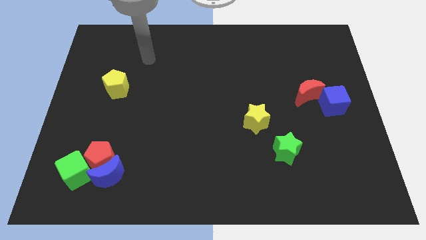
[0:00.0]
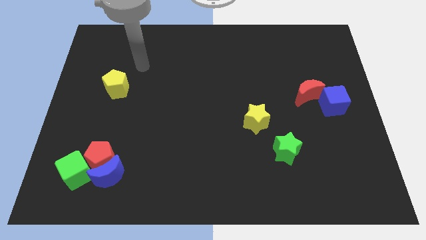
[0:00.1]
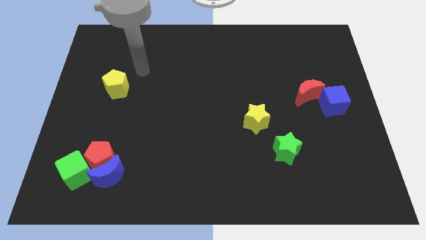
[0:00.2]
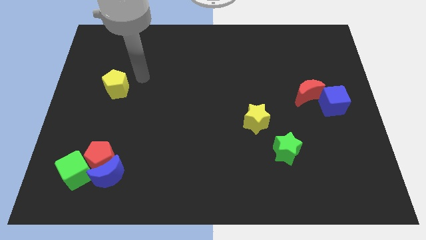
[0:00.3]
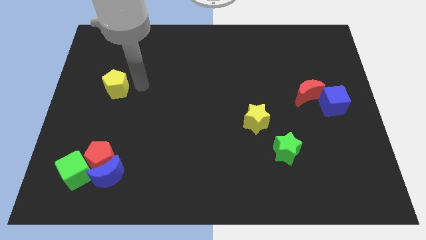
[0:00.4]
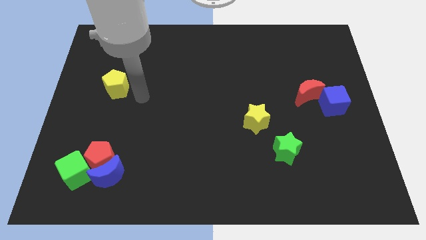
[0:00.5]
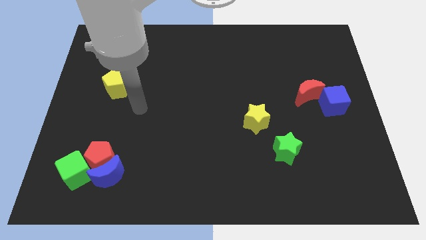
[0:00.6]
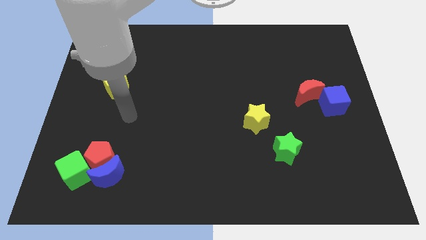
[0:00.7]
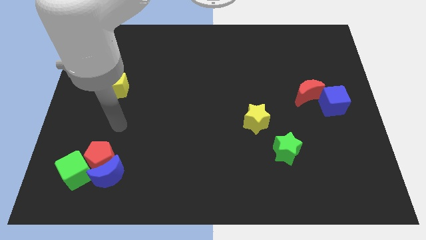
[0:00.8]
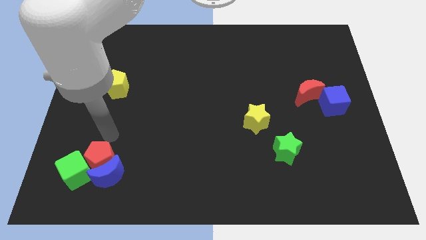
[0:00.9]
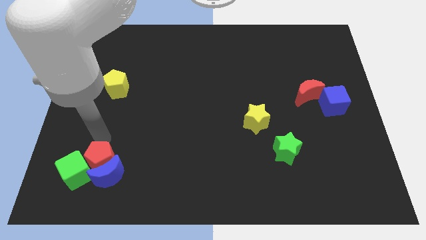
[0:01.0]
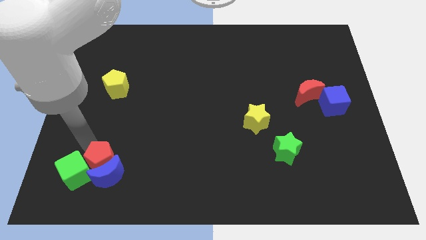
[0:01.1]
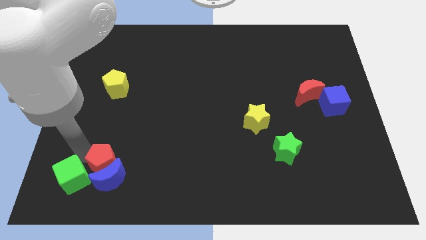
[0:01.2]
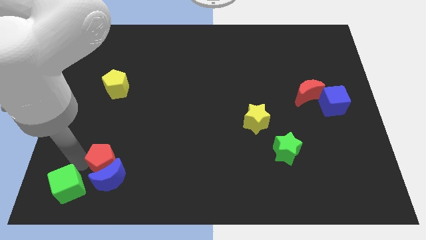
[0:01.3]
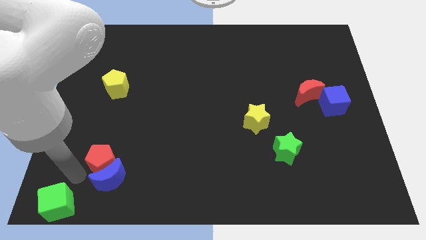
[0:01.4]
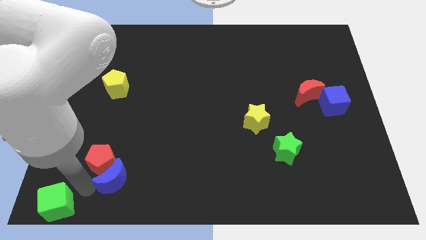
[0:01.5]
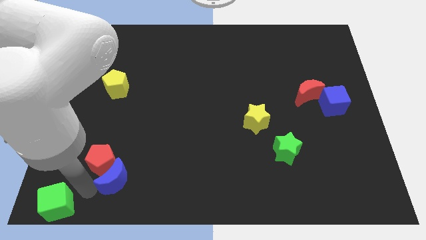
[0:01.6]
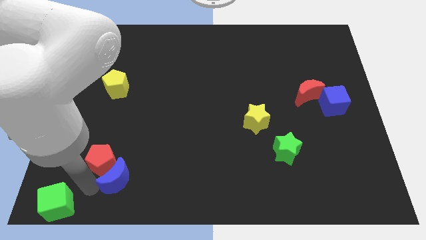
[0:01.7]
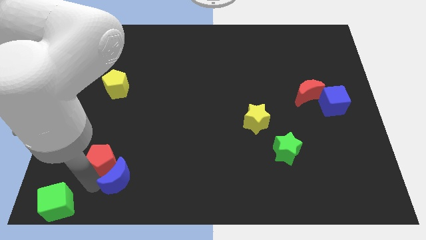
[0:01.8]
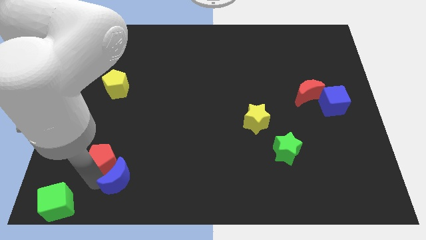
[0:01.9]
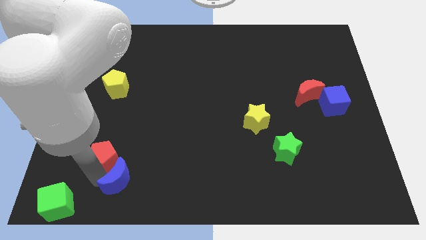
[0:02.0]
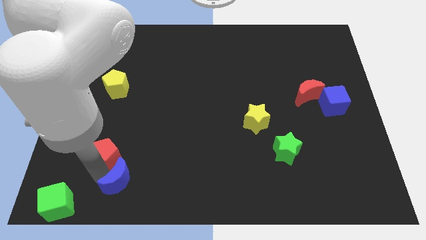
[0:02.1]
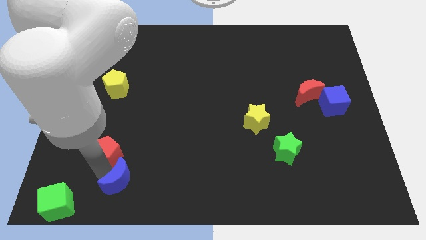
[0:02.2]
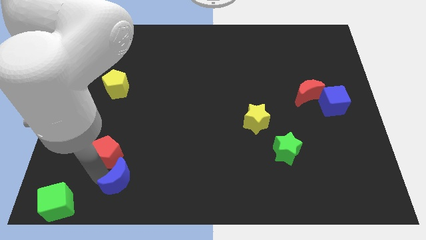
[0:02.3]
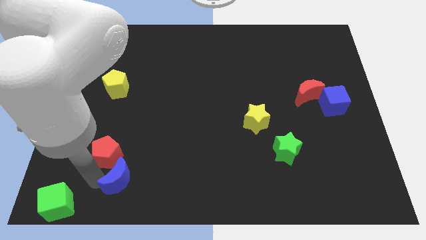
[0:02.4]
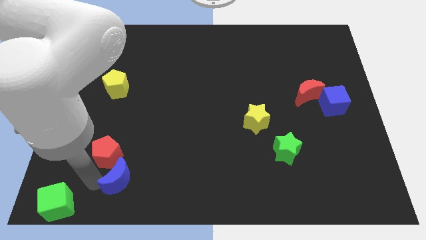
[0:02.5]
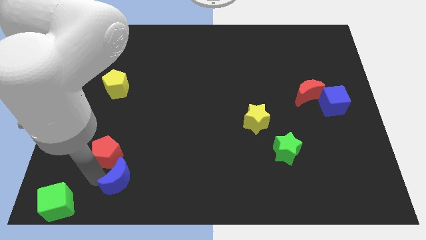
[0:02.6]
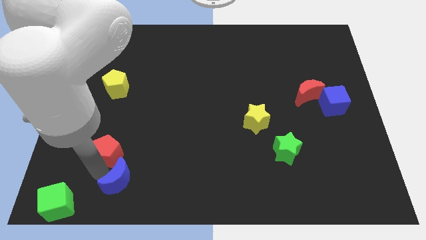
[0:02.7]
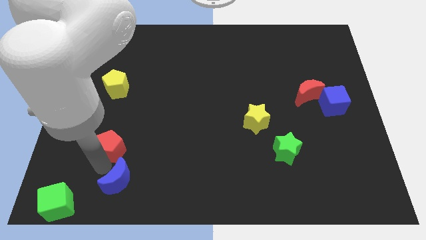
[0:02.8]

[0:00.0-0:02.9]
move the red pentagon away from the blue moon and green cube

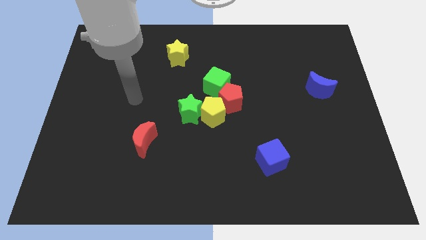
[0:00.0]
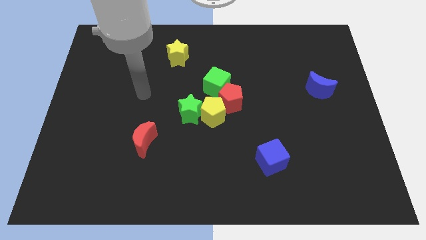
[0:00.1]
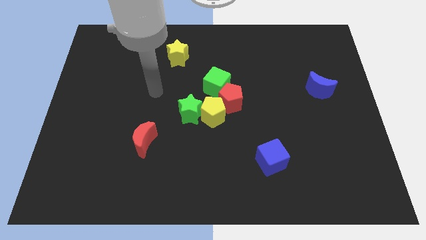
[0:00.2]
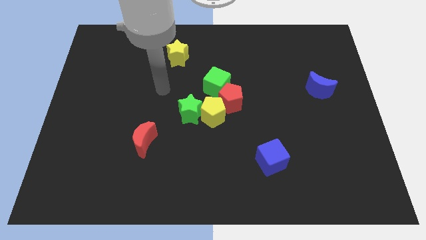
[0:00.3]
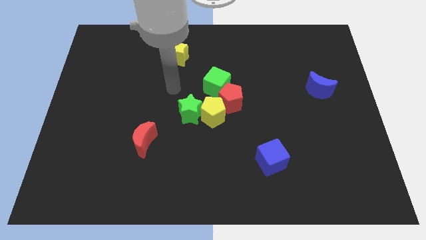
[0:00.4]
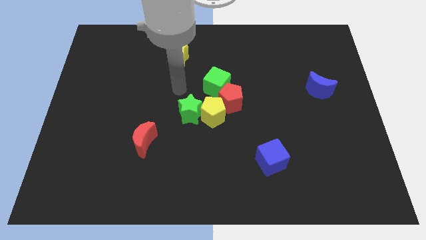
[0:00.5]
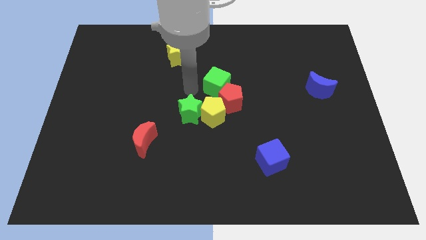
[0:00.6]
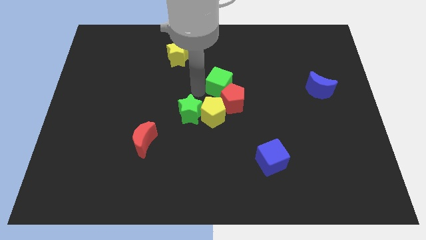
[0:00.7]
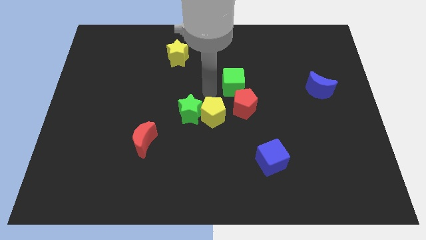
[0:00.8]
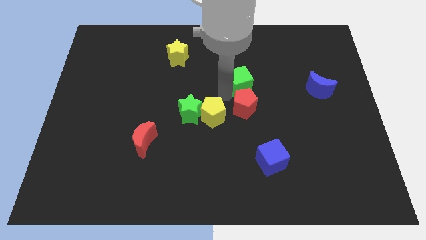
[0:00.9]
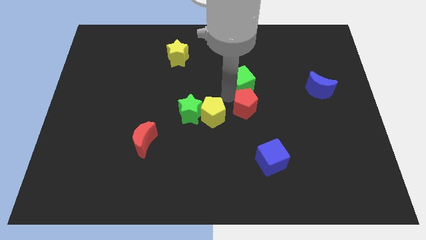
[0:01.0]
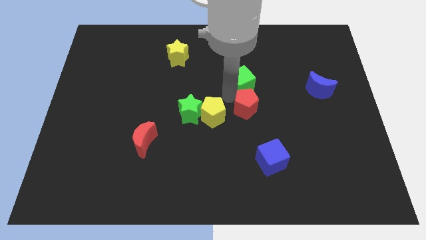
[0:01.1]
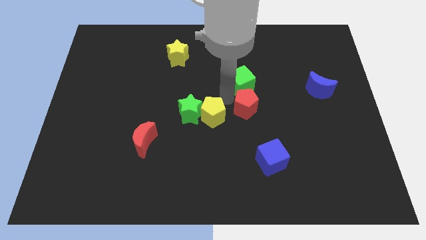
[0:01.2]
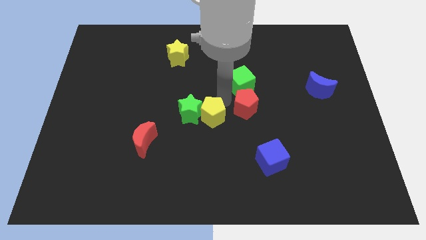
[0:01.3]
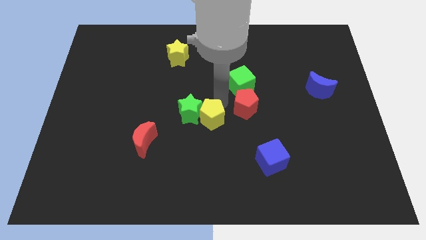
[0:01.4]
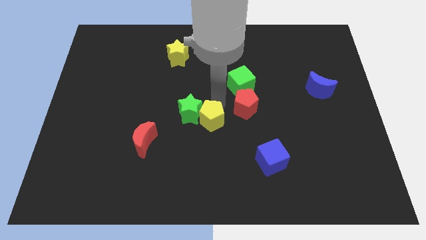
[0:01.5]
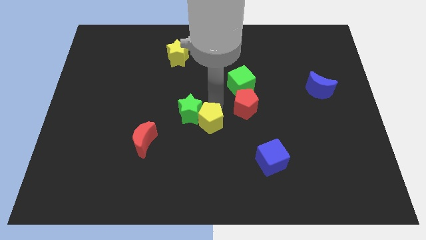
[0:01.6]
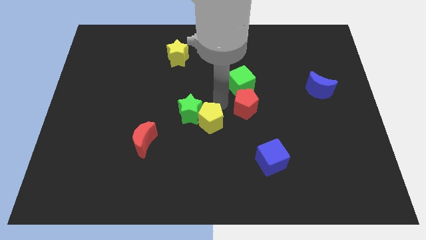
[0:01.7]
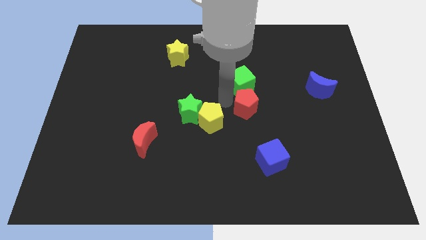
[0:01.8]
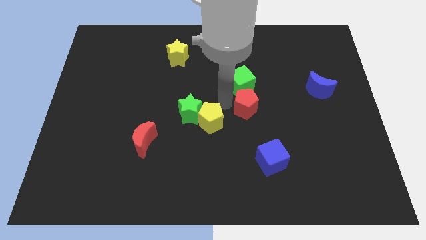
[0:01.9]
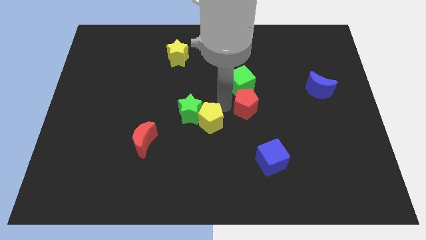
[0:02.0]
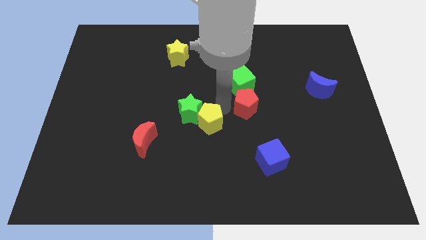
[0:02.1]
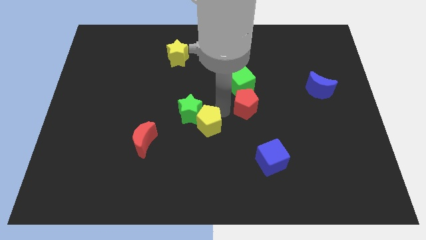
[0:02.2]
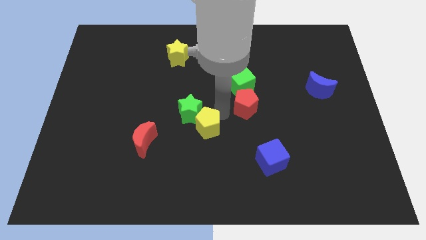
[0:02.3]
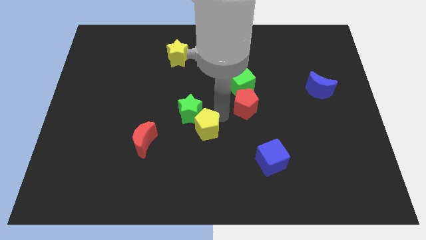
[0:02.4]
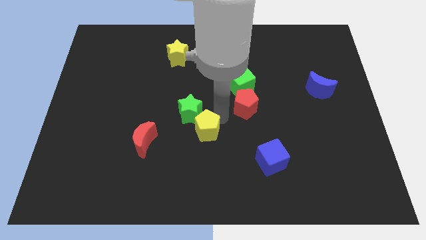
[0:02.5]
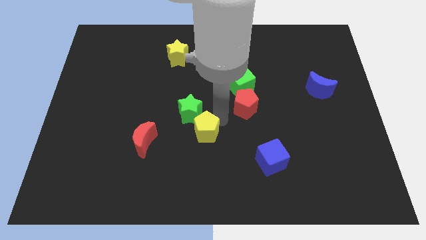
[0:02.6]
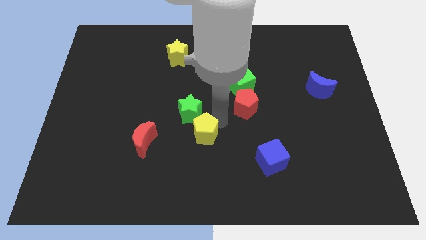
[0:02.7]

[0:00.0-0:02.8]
move the yellow pentagon away from the group

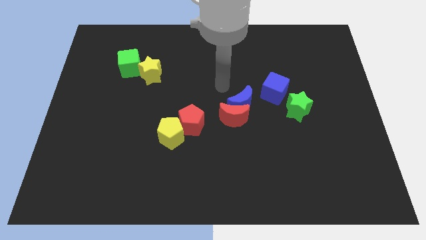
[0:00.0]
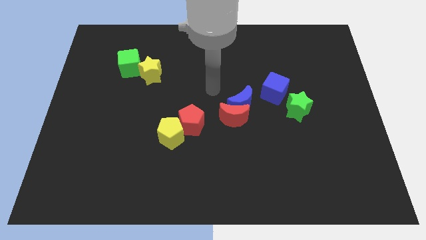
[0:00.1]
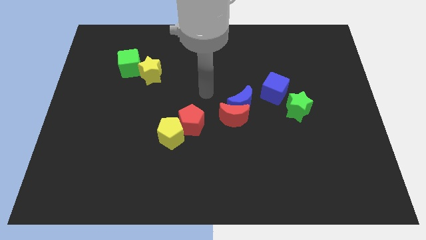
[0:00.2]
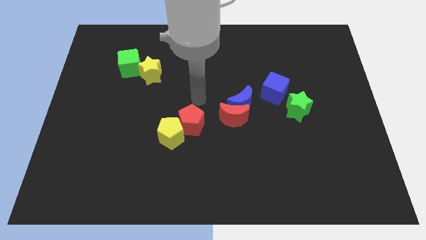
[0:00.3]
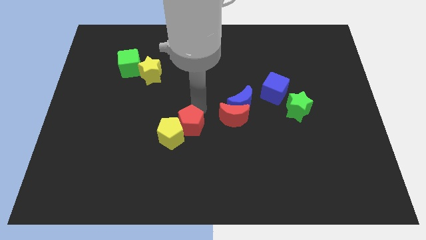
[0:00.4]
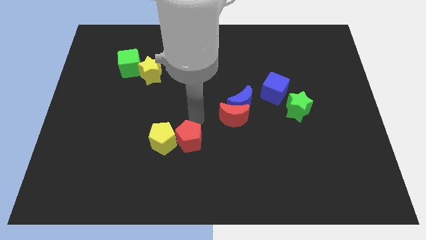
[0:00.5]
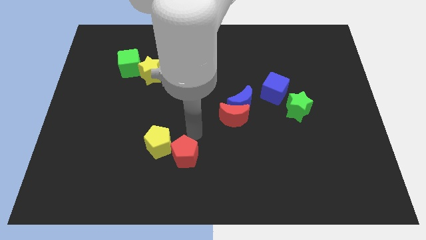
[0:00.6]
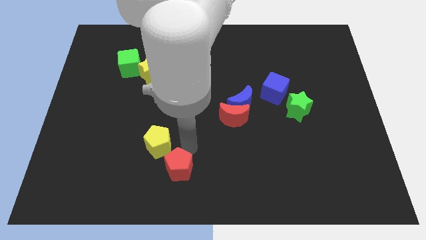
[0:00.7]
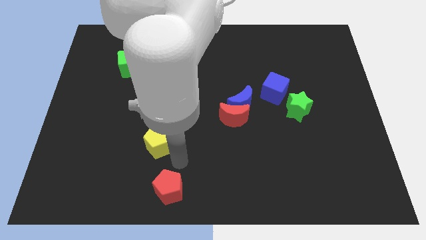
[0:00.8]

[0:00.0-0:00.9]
separate the yellow pentagon from the red pentagon

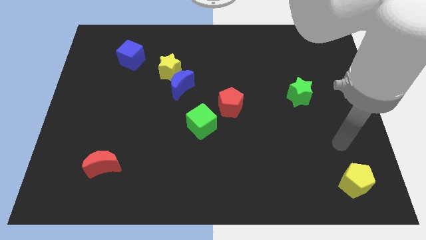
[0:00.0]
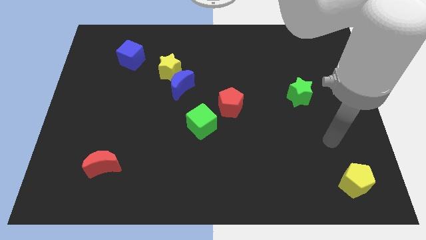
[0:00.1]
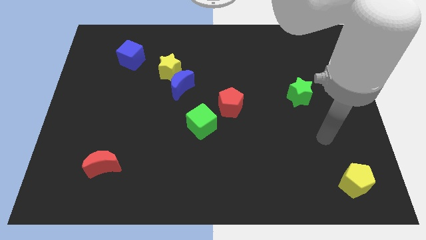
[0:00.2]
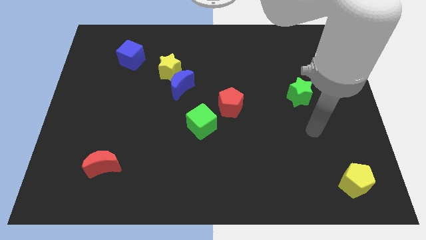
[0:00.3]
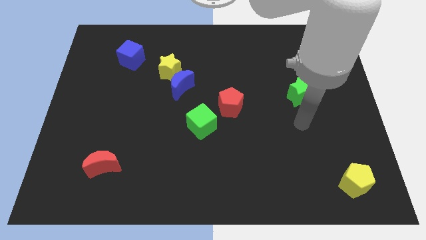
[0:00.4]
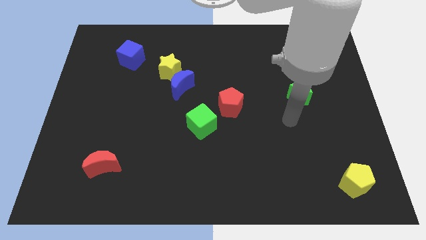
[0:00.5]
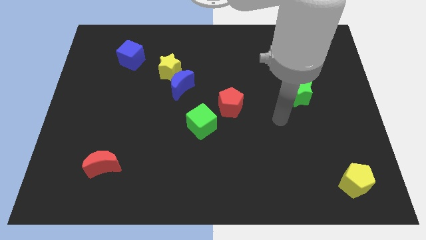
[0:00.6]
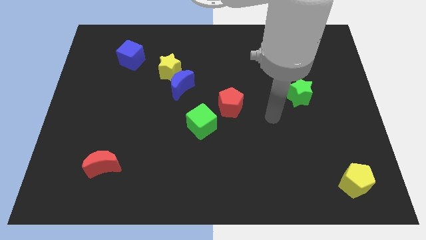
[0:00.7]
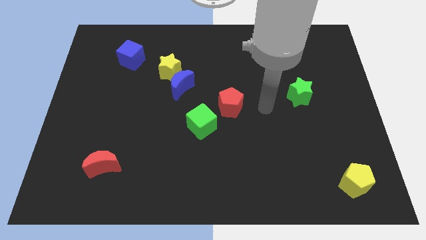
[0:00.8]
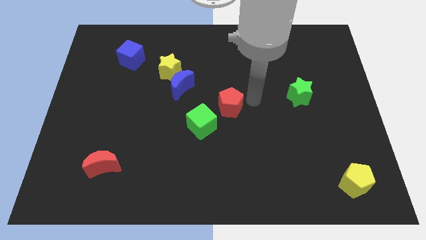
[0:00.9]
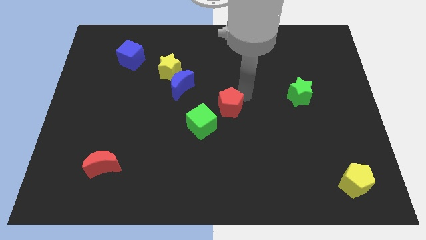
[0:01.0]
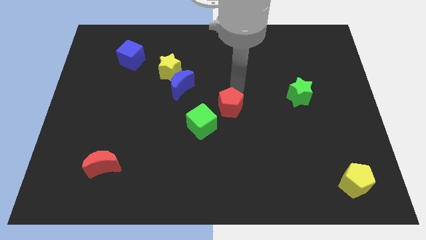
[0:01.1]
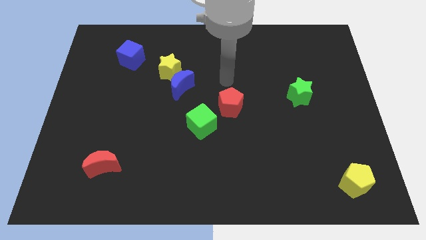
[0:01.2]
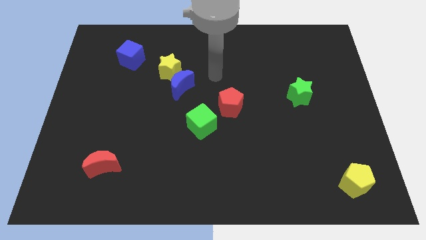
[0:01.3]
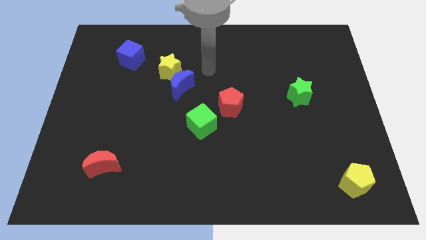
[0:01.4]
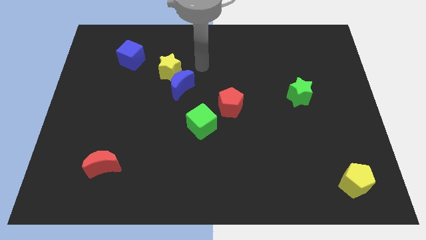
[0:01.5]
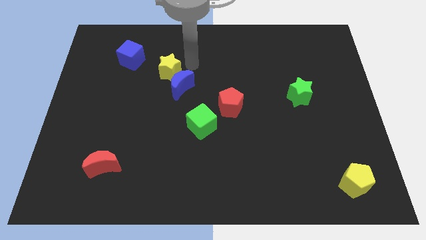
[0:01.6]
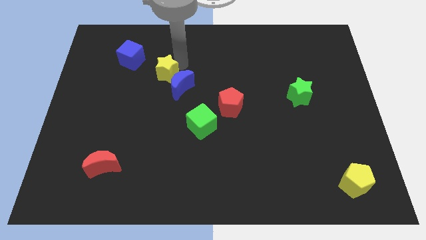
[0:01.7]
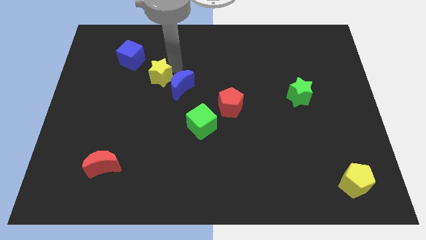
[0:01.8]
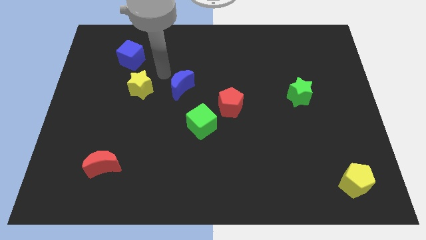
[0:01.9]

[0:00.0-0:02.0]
move the blue moon away from the yellow star

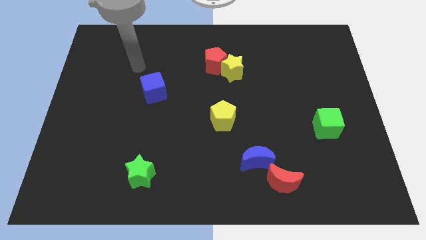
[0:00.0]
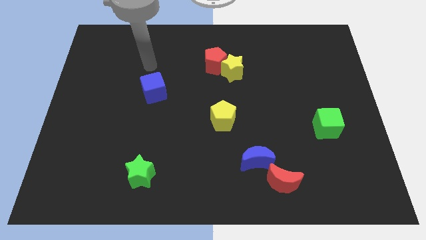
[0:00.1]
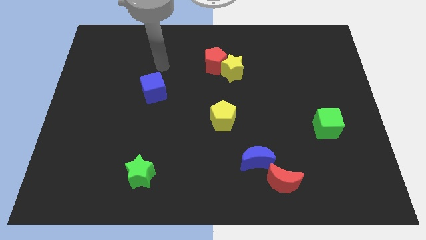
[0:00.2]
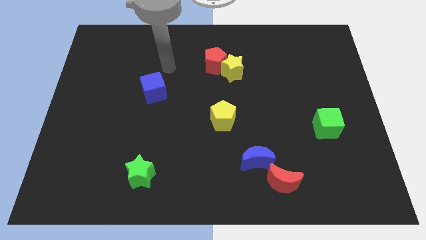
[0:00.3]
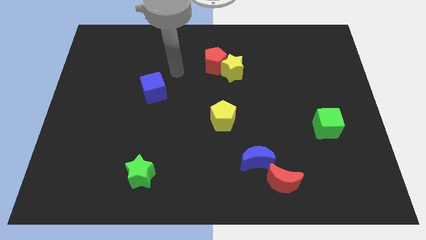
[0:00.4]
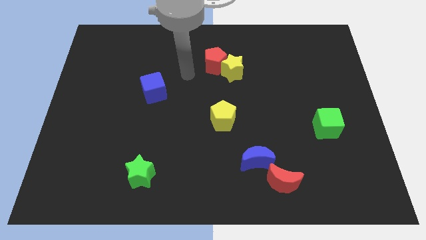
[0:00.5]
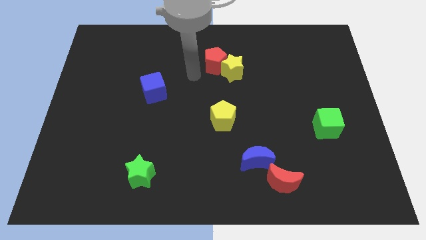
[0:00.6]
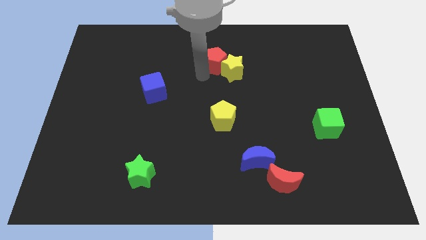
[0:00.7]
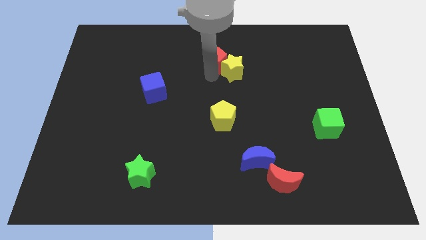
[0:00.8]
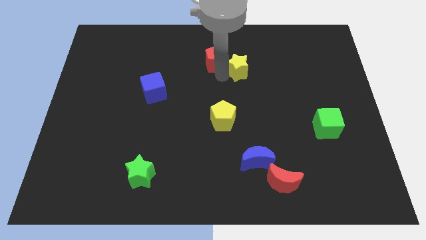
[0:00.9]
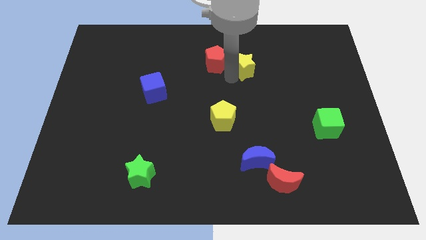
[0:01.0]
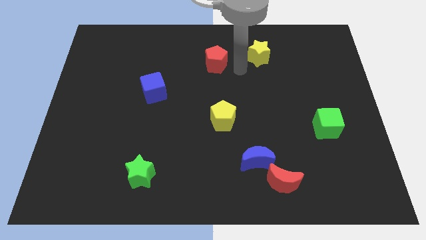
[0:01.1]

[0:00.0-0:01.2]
separate the red pentagon from the yellow star
